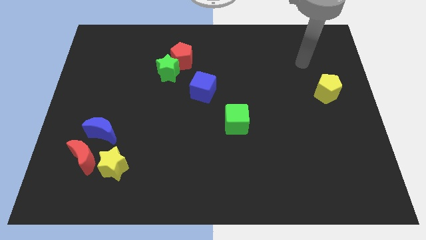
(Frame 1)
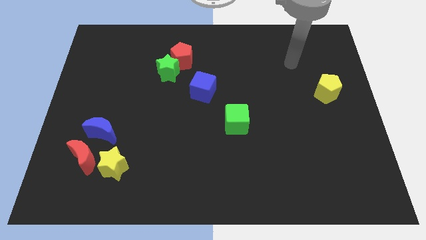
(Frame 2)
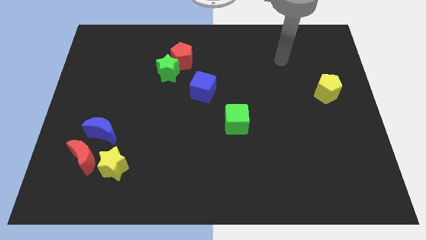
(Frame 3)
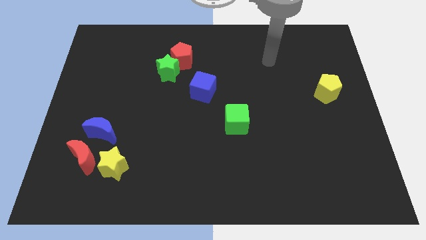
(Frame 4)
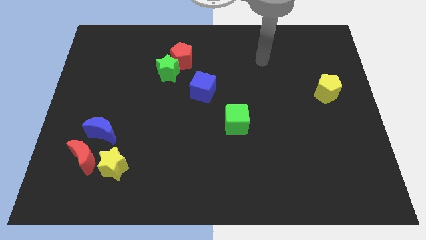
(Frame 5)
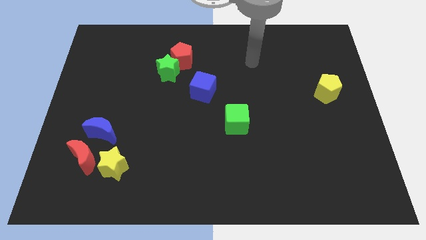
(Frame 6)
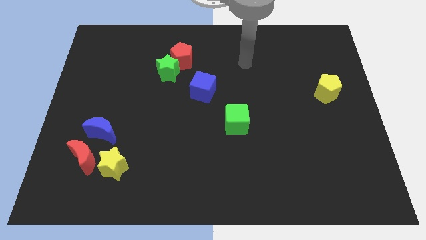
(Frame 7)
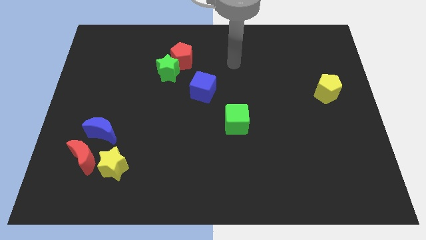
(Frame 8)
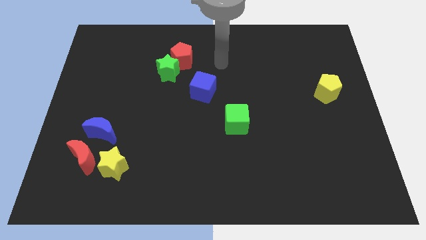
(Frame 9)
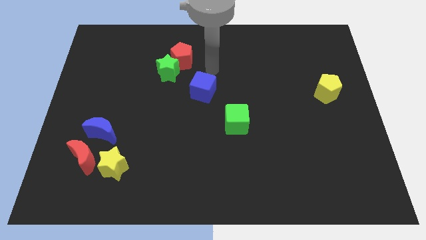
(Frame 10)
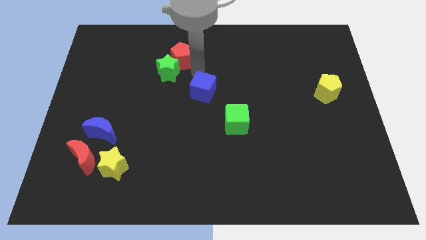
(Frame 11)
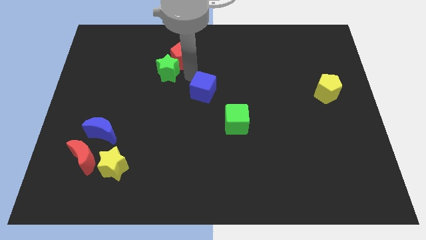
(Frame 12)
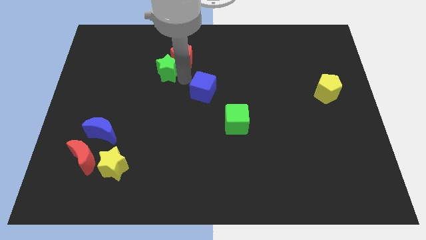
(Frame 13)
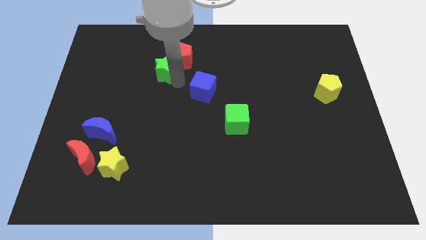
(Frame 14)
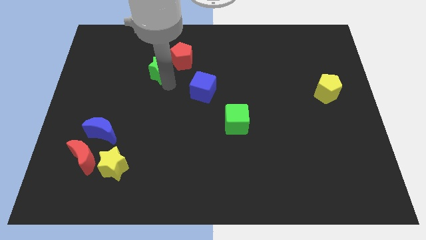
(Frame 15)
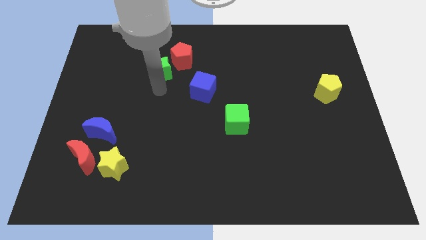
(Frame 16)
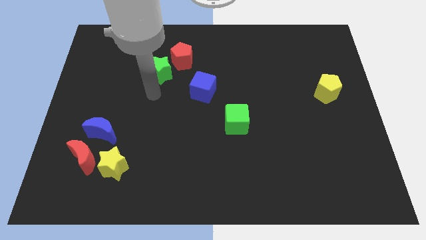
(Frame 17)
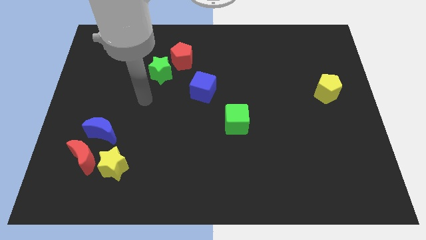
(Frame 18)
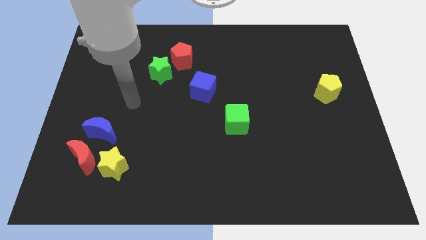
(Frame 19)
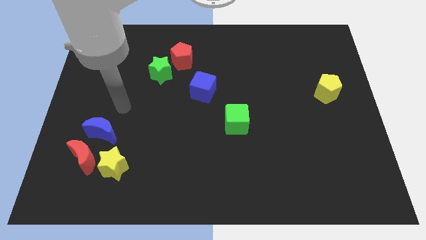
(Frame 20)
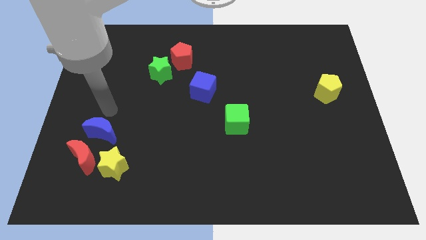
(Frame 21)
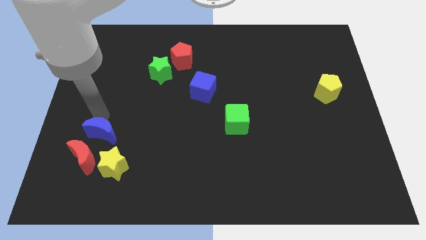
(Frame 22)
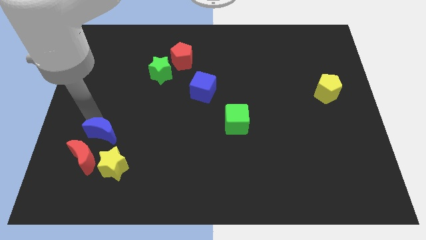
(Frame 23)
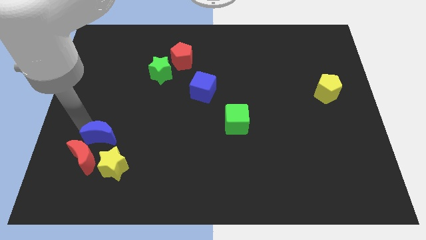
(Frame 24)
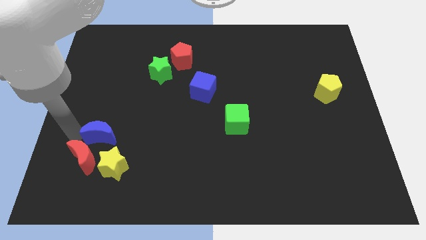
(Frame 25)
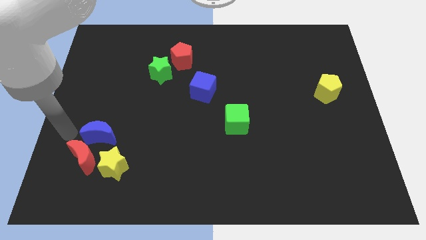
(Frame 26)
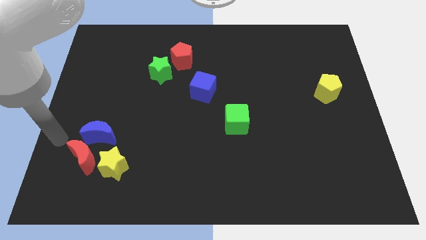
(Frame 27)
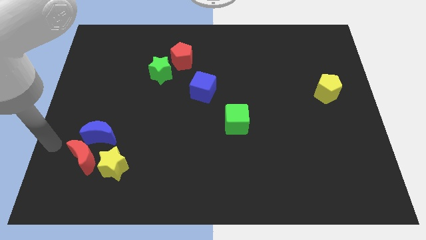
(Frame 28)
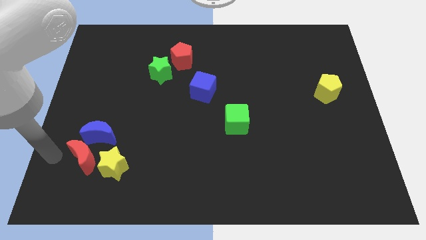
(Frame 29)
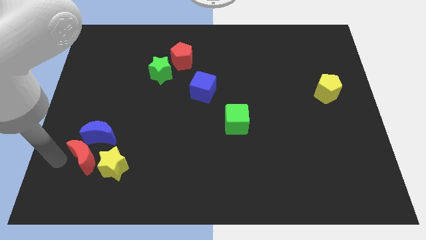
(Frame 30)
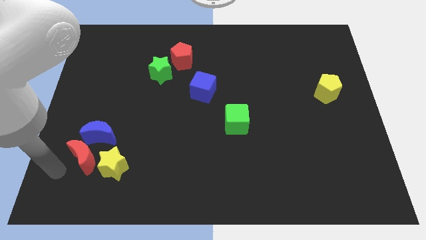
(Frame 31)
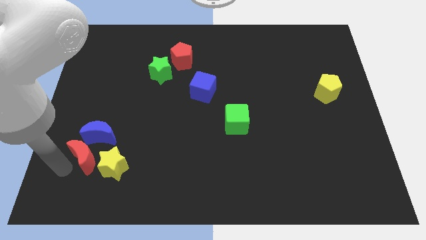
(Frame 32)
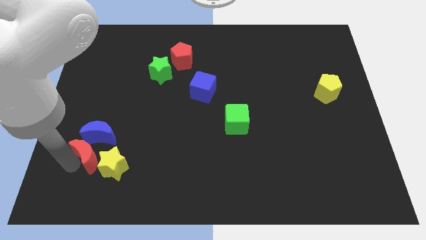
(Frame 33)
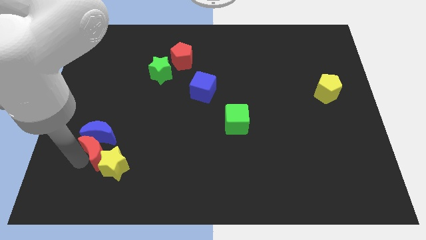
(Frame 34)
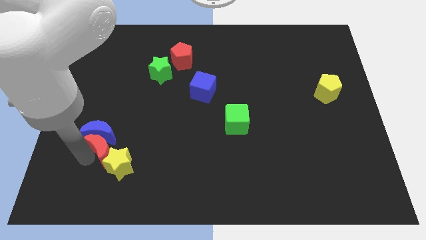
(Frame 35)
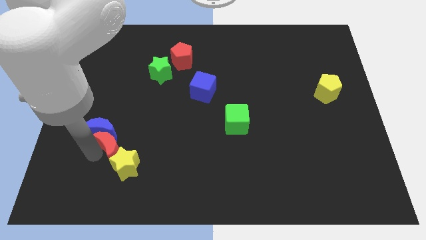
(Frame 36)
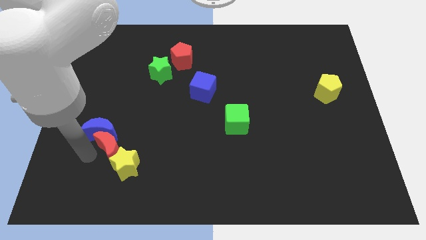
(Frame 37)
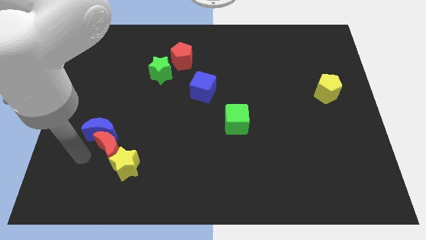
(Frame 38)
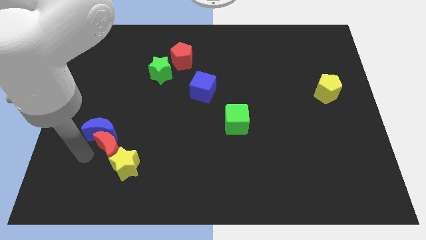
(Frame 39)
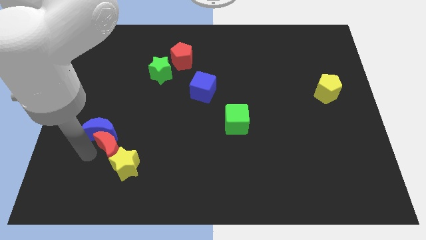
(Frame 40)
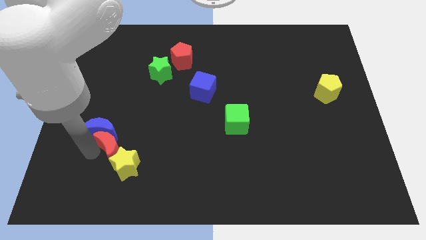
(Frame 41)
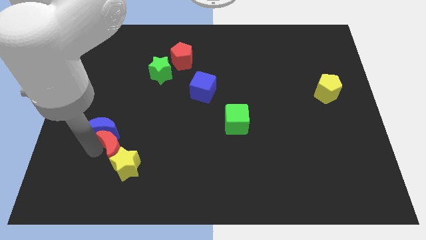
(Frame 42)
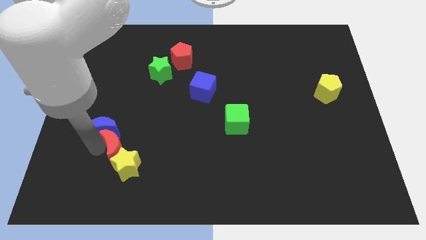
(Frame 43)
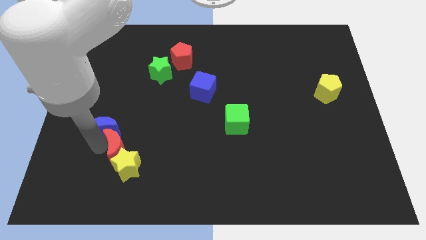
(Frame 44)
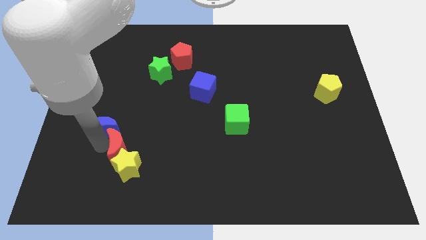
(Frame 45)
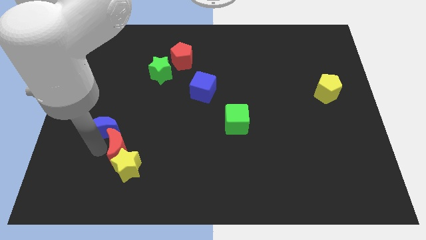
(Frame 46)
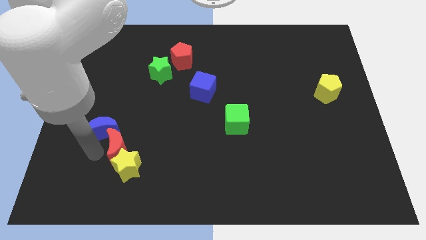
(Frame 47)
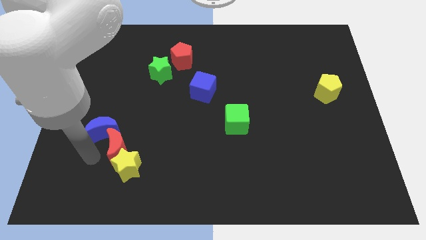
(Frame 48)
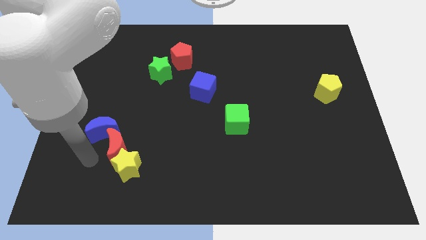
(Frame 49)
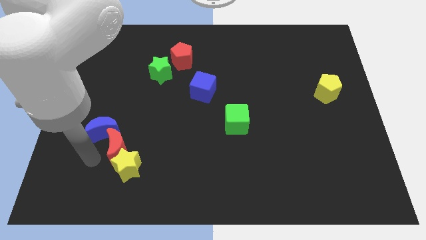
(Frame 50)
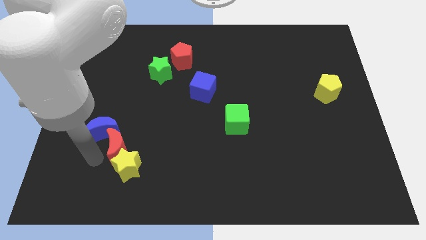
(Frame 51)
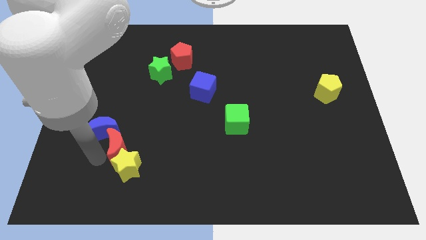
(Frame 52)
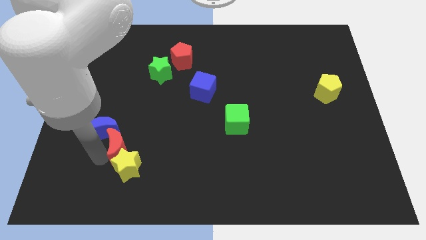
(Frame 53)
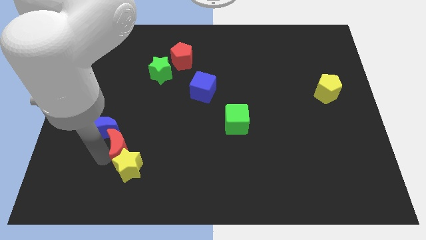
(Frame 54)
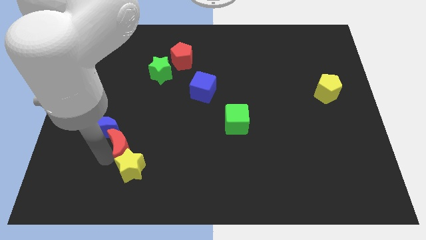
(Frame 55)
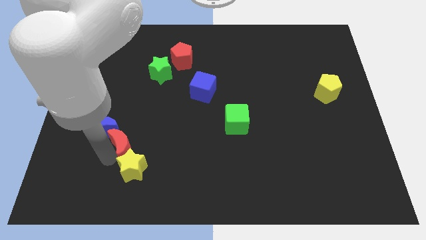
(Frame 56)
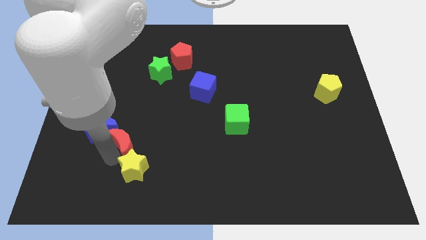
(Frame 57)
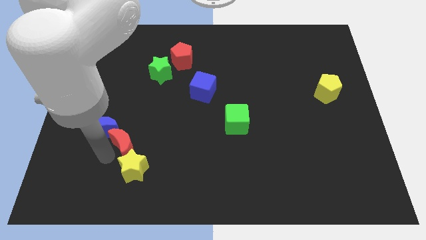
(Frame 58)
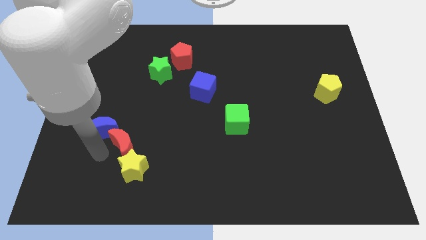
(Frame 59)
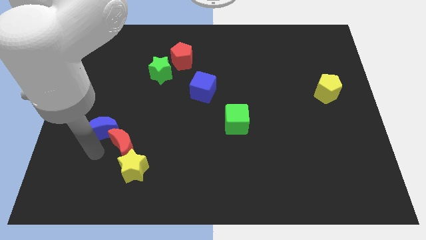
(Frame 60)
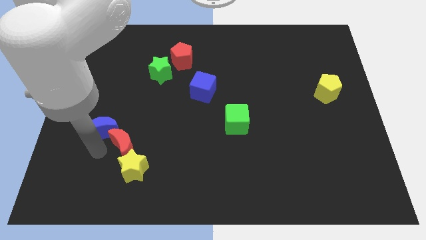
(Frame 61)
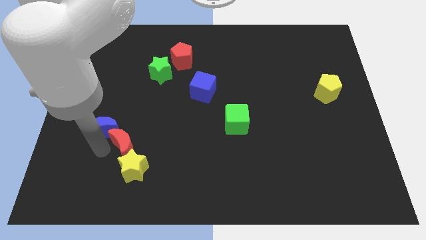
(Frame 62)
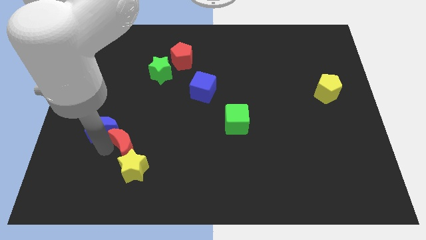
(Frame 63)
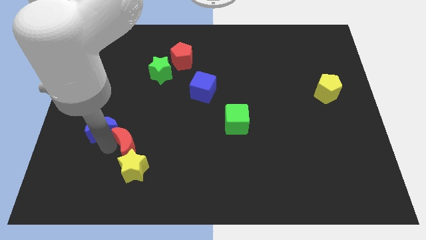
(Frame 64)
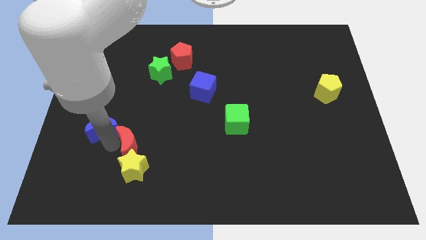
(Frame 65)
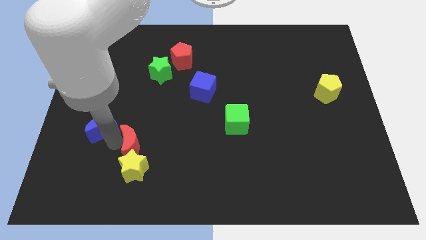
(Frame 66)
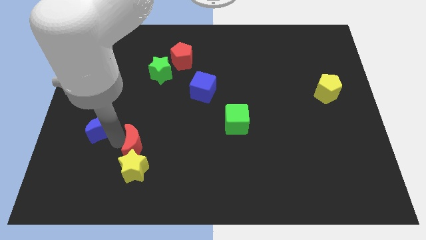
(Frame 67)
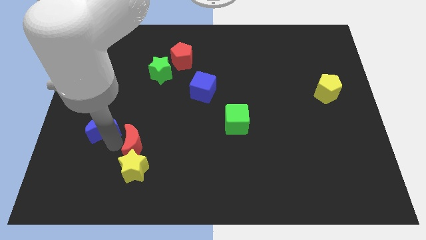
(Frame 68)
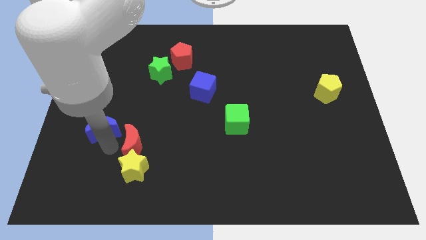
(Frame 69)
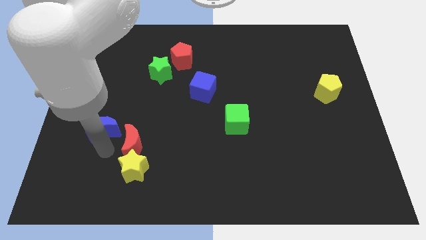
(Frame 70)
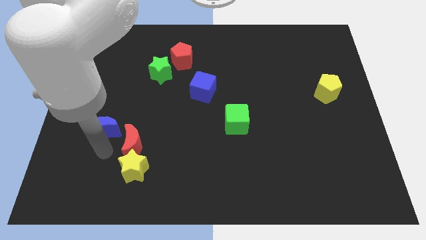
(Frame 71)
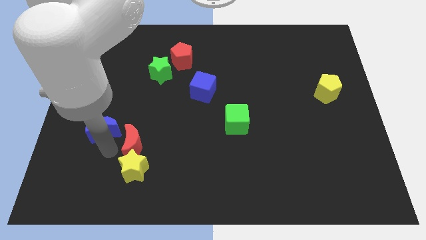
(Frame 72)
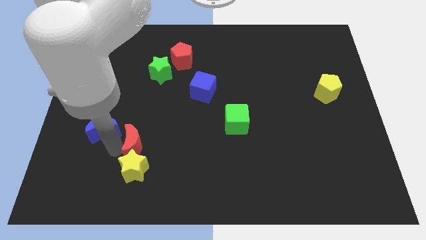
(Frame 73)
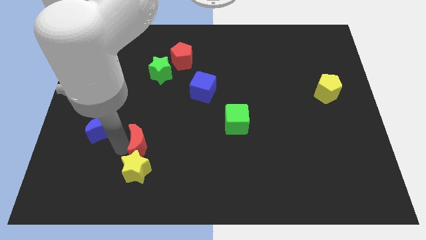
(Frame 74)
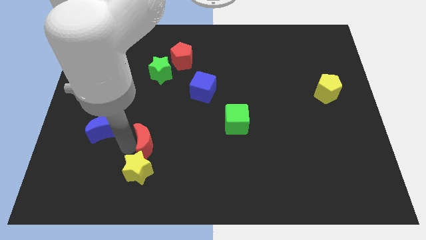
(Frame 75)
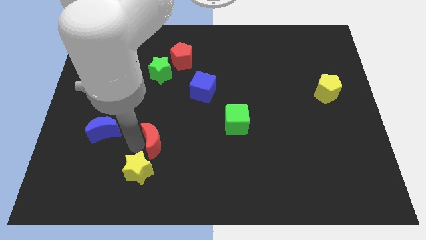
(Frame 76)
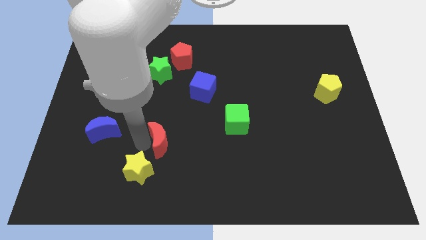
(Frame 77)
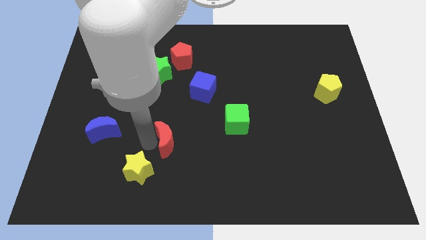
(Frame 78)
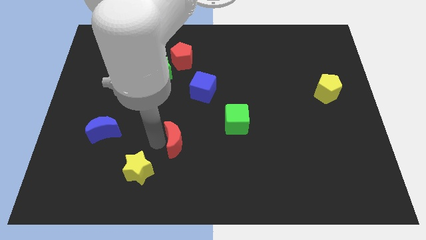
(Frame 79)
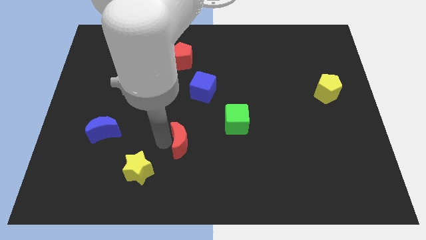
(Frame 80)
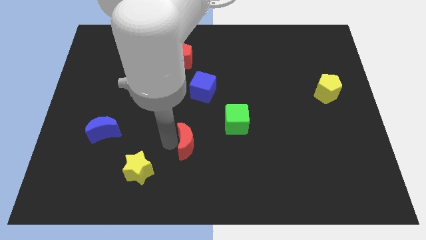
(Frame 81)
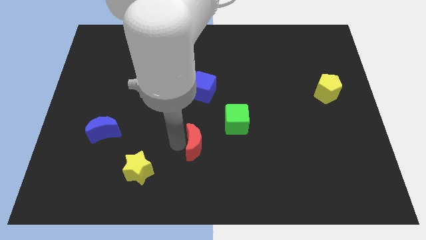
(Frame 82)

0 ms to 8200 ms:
push the red moon to the bottom left of the green cube
